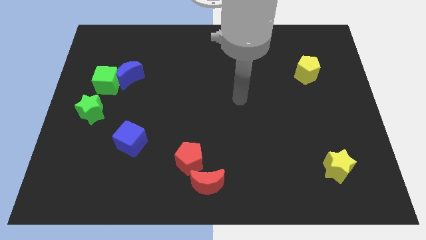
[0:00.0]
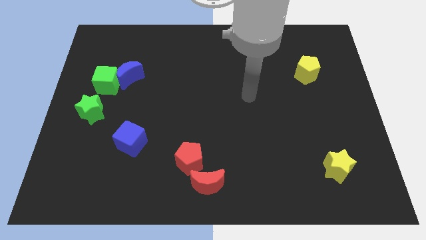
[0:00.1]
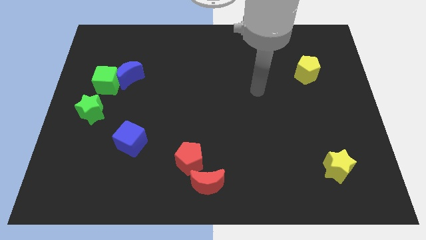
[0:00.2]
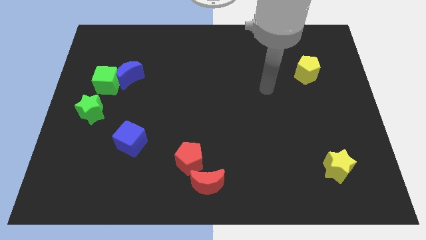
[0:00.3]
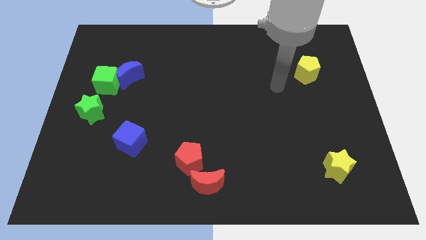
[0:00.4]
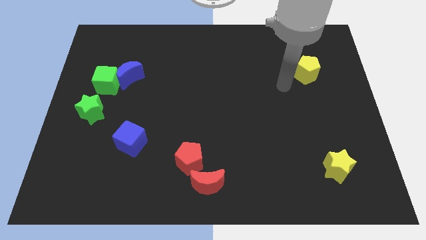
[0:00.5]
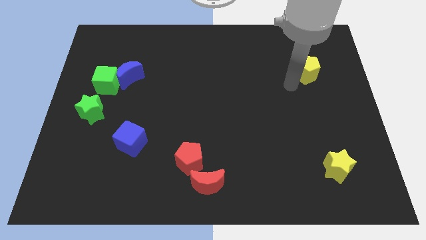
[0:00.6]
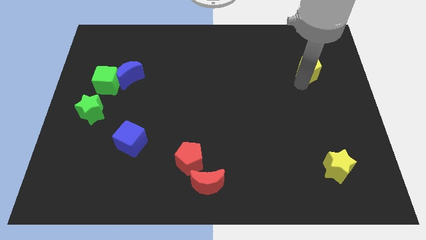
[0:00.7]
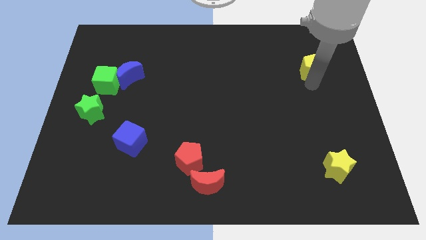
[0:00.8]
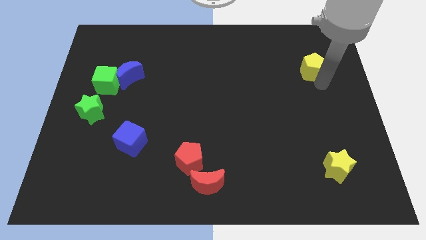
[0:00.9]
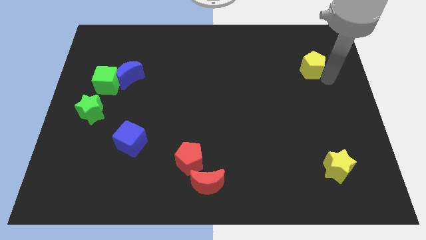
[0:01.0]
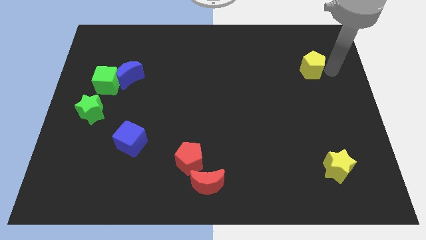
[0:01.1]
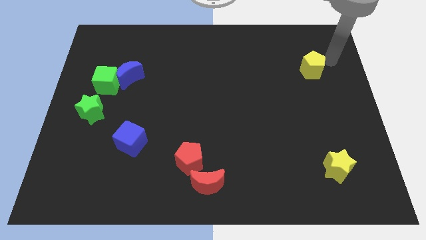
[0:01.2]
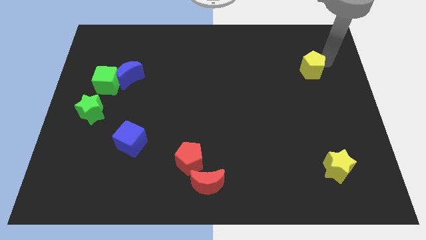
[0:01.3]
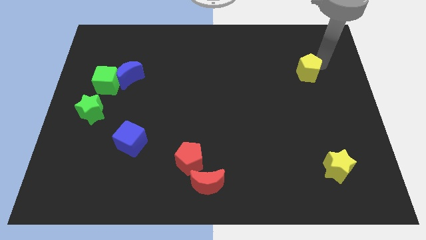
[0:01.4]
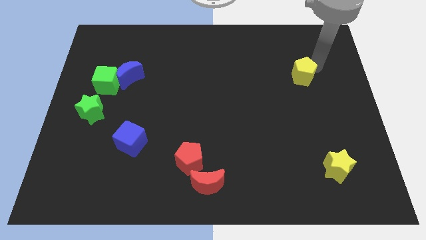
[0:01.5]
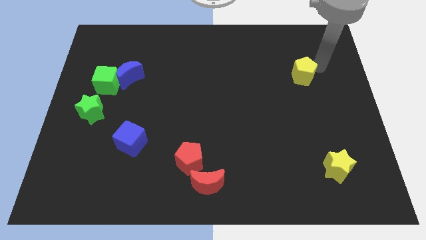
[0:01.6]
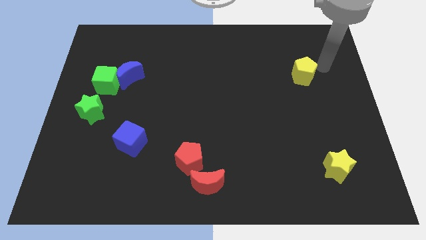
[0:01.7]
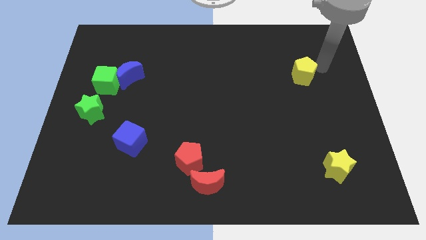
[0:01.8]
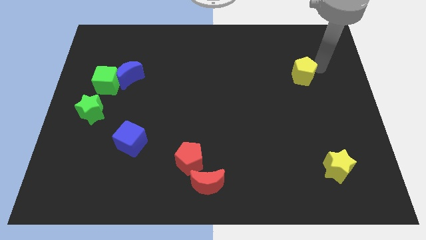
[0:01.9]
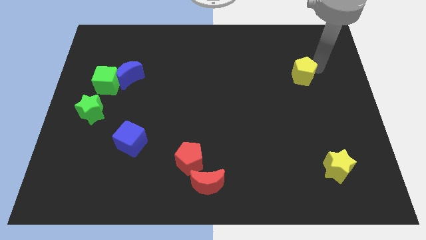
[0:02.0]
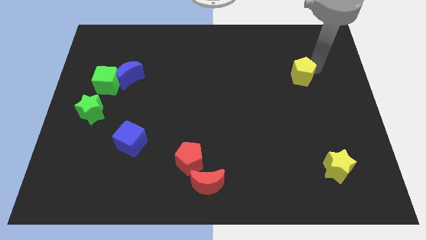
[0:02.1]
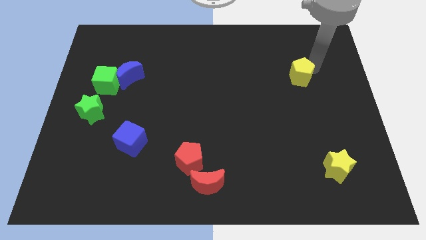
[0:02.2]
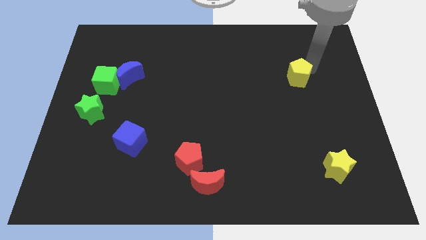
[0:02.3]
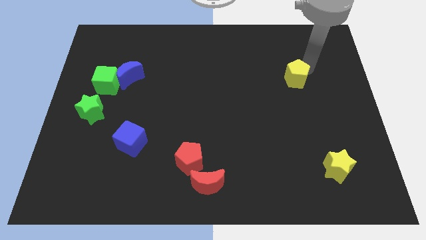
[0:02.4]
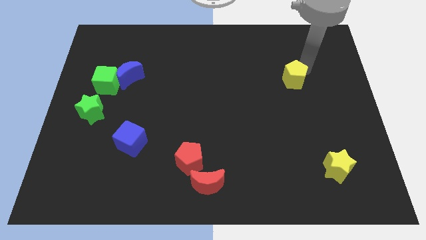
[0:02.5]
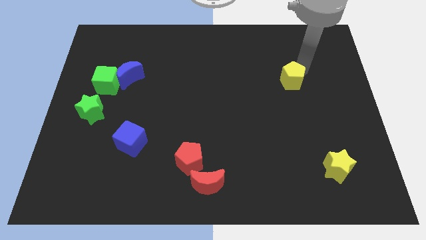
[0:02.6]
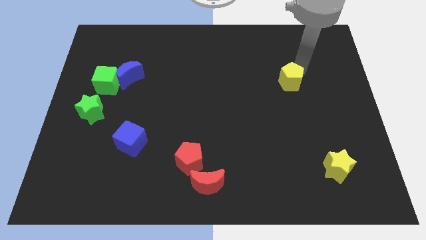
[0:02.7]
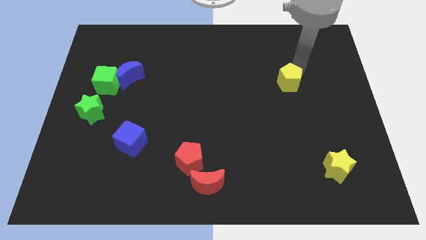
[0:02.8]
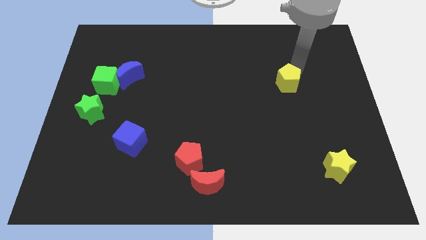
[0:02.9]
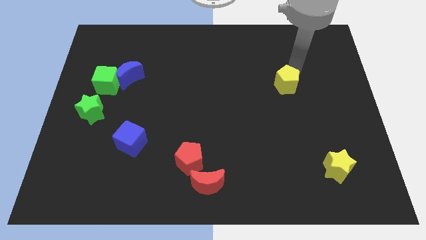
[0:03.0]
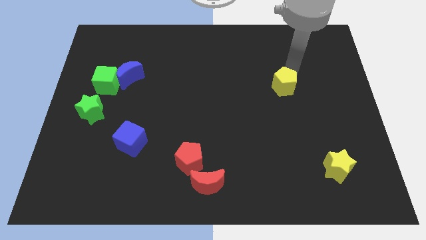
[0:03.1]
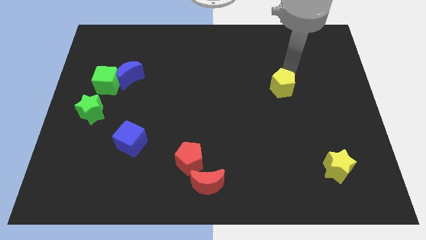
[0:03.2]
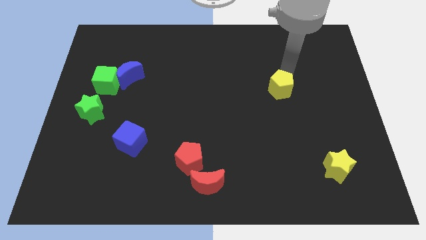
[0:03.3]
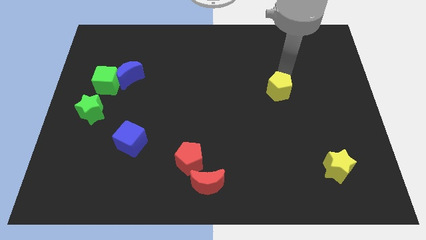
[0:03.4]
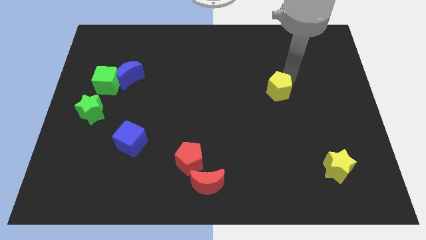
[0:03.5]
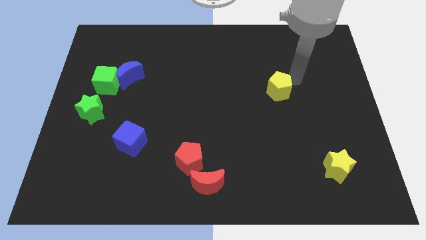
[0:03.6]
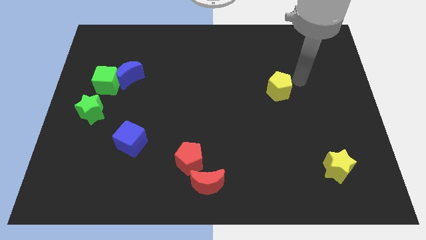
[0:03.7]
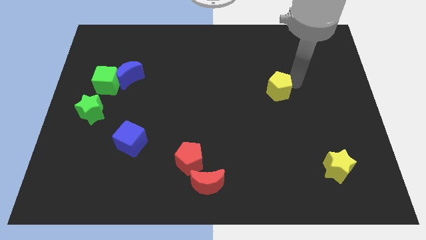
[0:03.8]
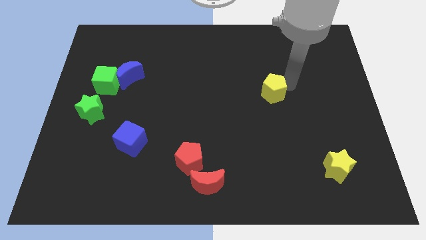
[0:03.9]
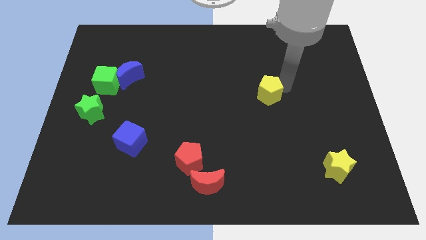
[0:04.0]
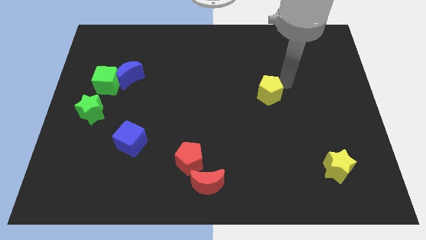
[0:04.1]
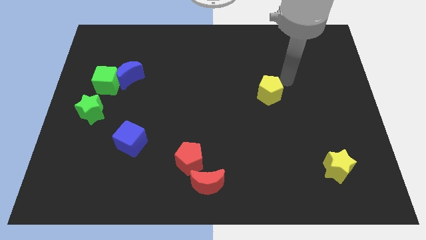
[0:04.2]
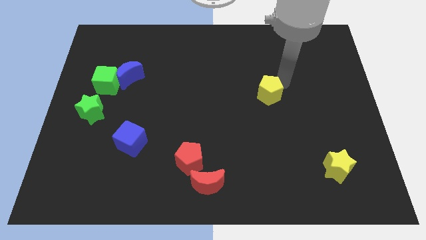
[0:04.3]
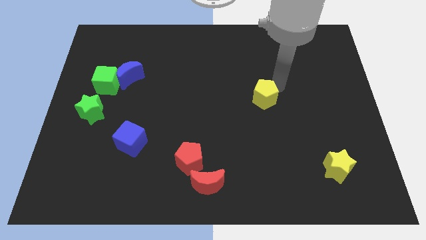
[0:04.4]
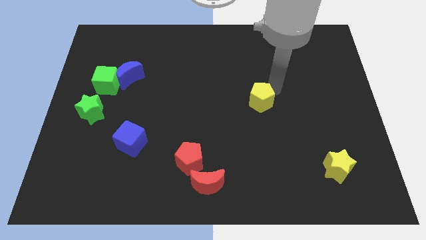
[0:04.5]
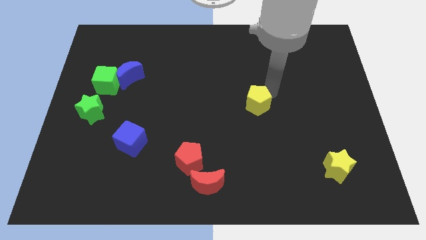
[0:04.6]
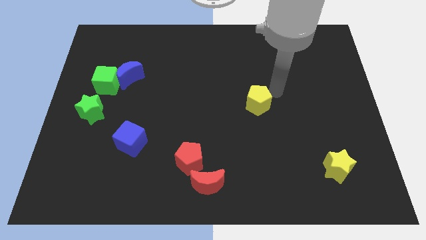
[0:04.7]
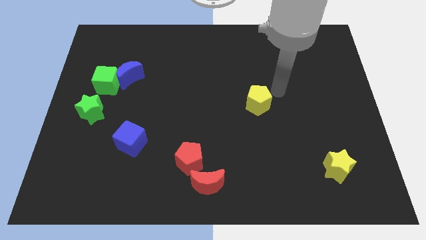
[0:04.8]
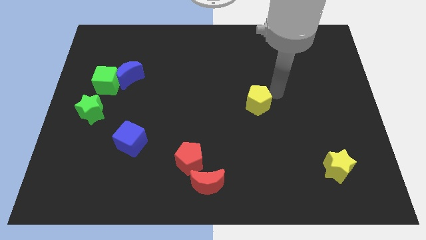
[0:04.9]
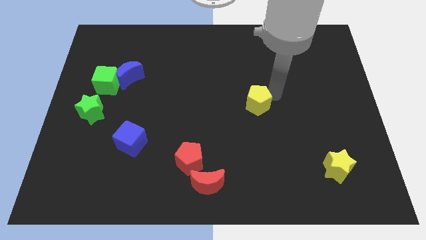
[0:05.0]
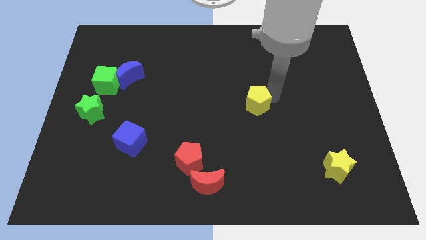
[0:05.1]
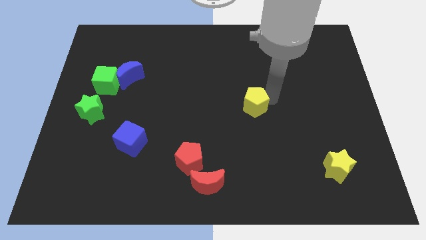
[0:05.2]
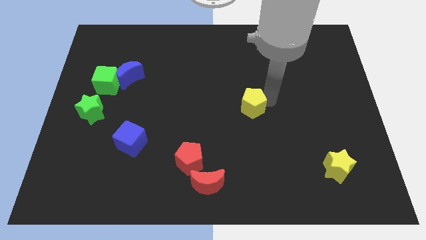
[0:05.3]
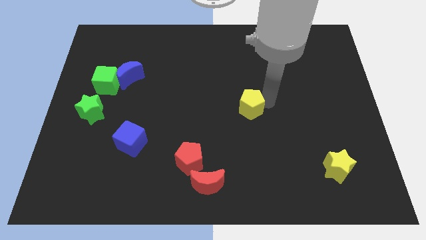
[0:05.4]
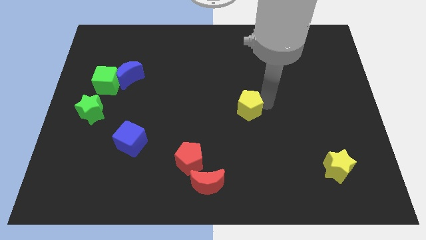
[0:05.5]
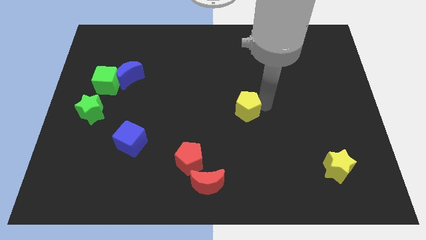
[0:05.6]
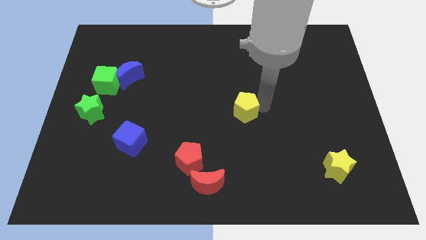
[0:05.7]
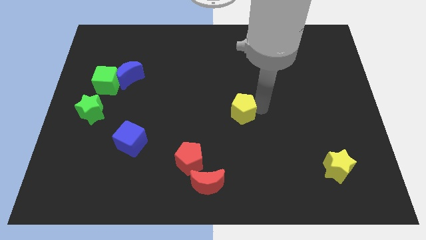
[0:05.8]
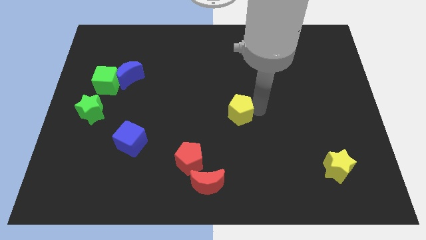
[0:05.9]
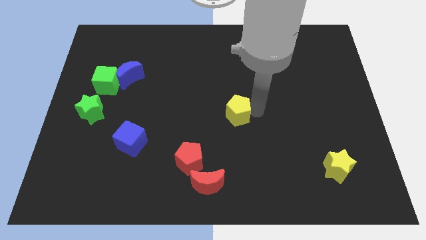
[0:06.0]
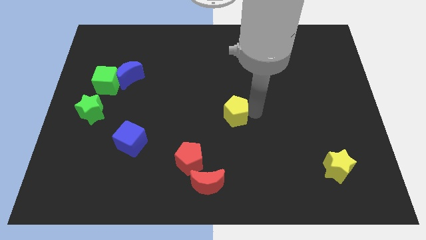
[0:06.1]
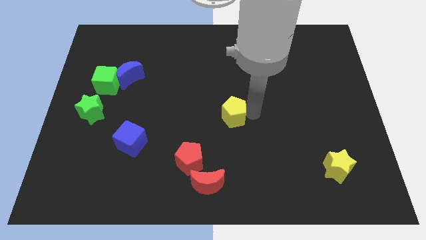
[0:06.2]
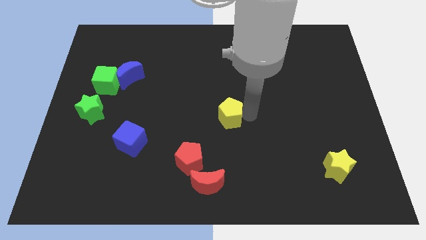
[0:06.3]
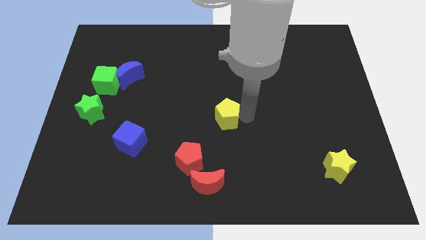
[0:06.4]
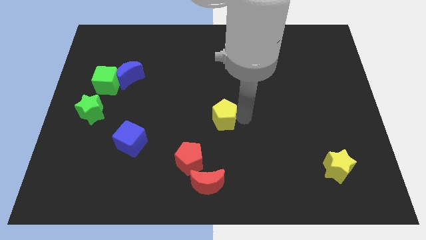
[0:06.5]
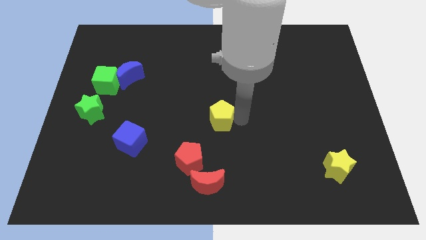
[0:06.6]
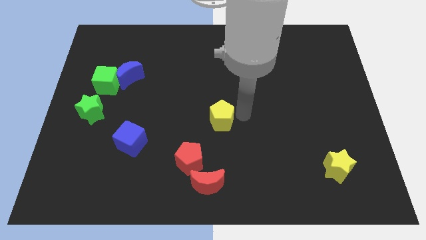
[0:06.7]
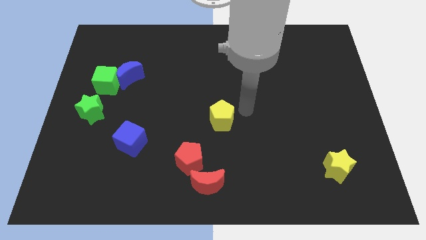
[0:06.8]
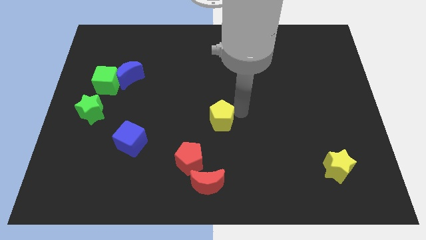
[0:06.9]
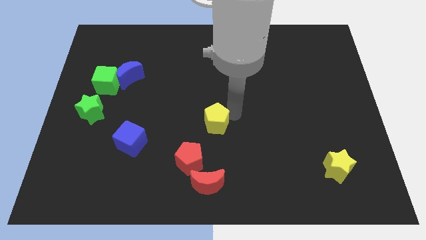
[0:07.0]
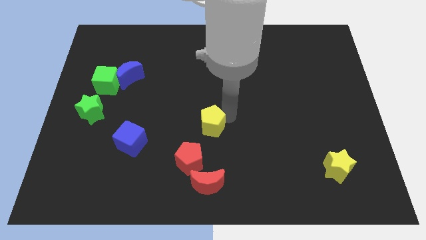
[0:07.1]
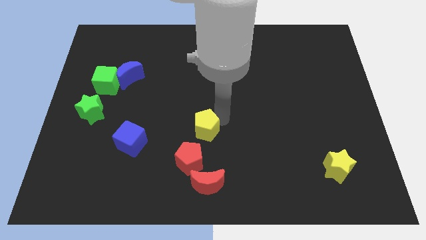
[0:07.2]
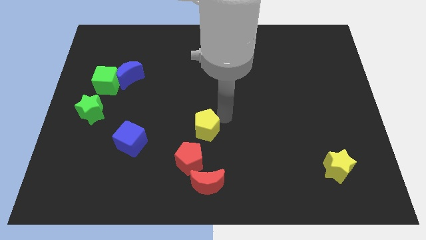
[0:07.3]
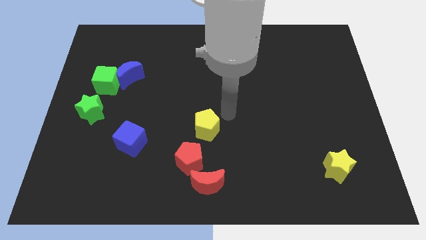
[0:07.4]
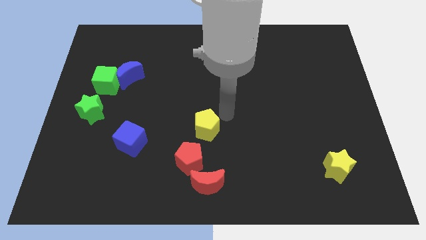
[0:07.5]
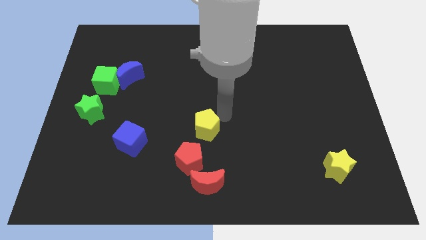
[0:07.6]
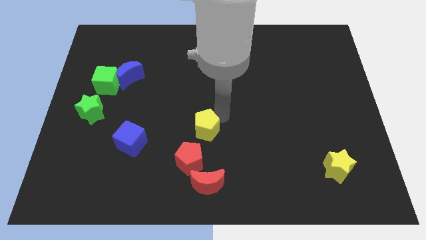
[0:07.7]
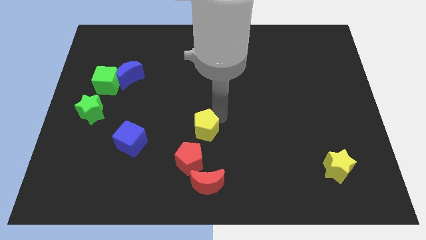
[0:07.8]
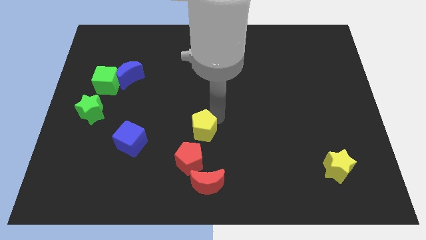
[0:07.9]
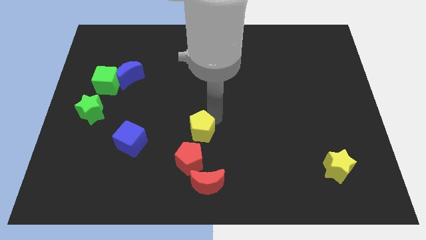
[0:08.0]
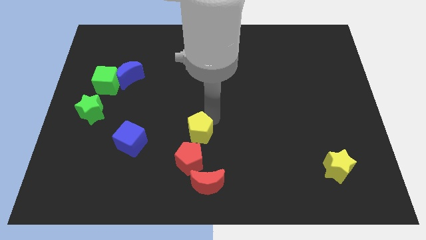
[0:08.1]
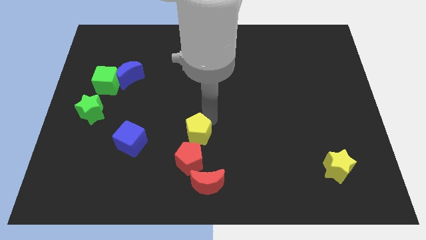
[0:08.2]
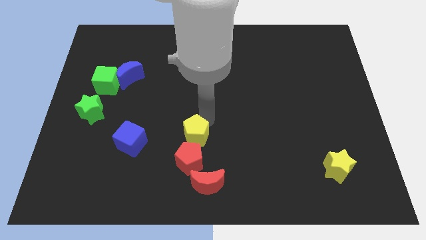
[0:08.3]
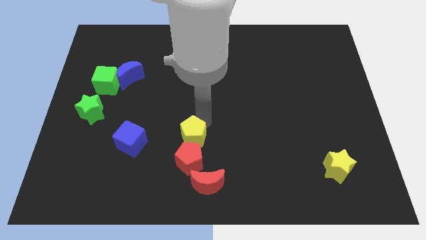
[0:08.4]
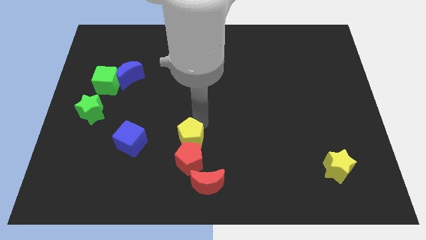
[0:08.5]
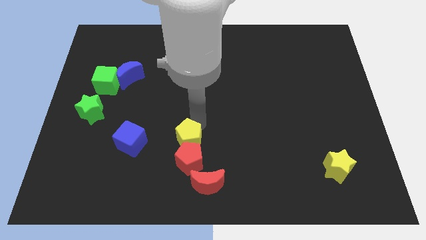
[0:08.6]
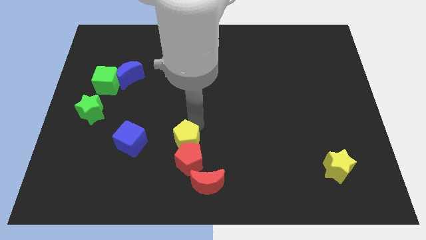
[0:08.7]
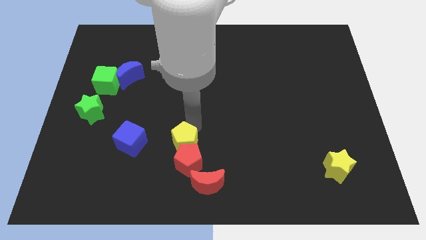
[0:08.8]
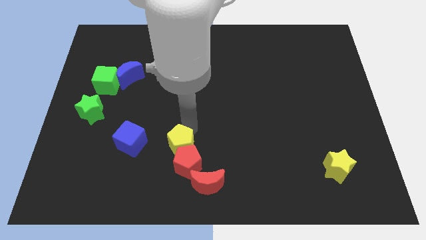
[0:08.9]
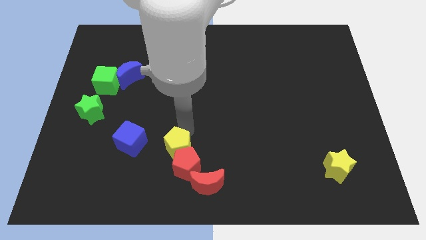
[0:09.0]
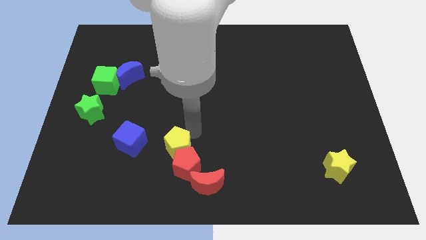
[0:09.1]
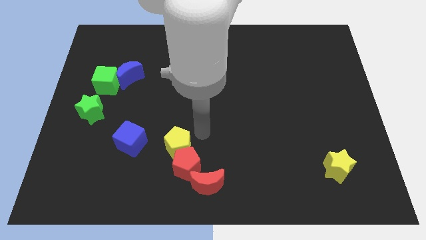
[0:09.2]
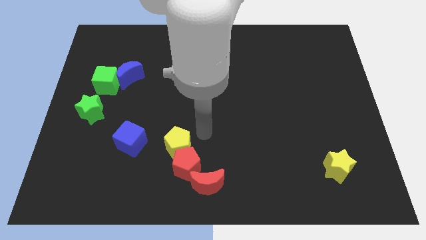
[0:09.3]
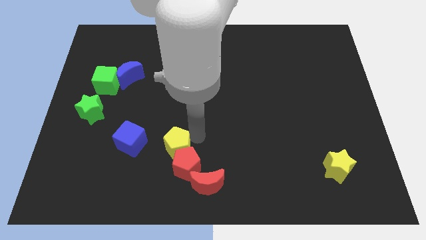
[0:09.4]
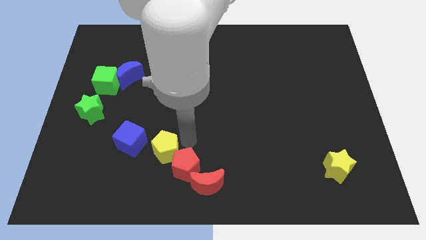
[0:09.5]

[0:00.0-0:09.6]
push the yellow pentagon left of the red pentagon
